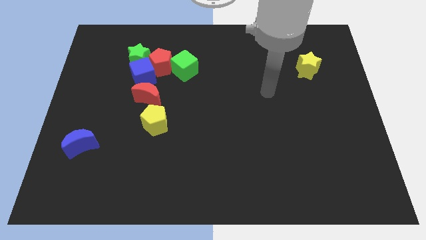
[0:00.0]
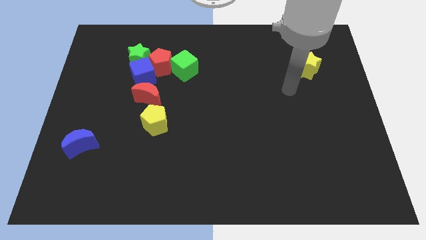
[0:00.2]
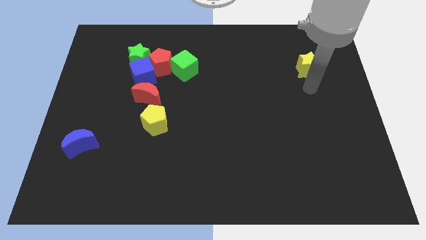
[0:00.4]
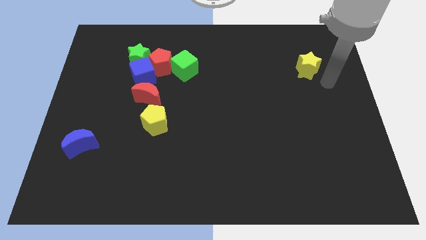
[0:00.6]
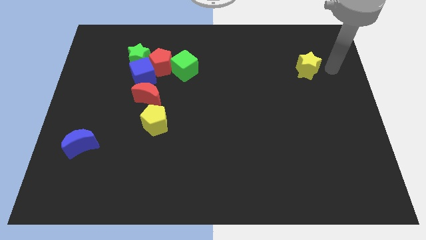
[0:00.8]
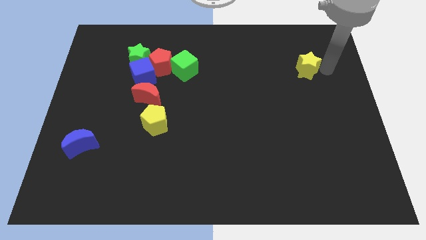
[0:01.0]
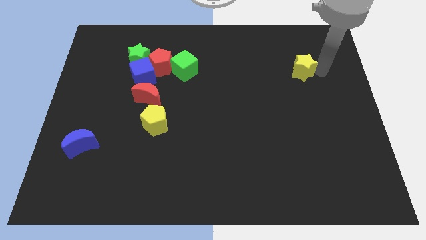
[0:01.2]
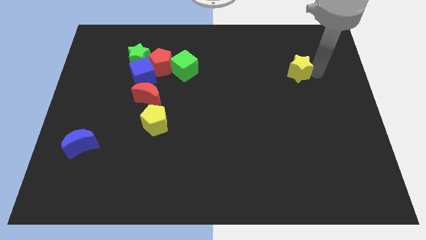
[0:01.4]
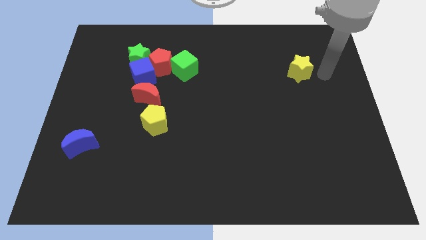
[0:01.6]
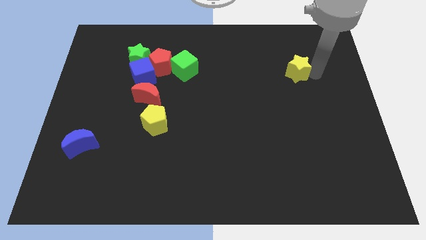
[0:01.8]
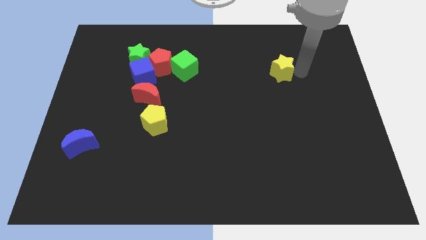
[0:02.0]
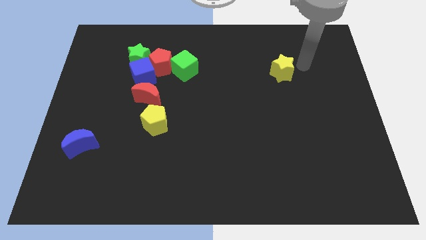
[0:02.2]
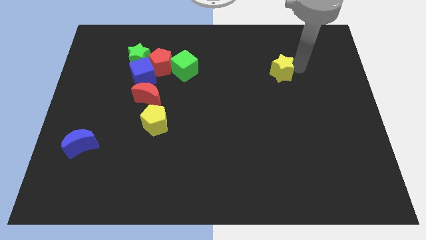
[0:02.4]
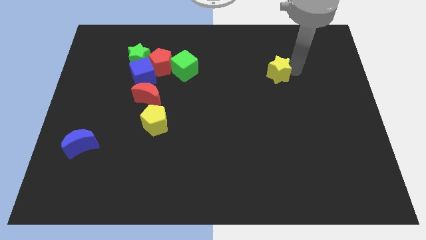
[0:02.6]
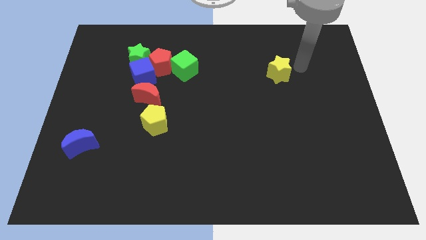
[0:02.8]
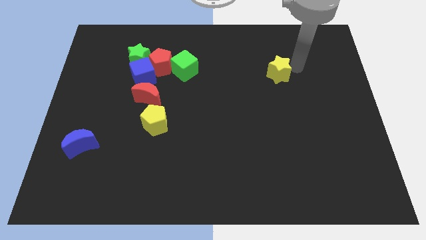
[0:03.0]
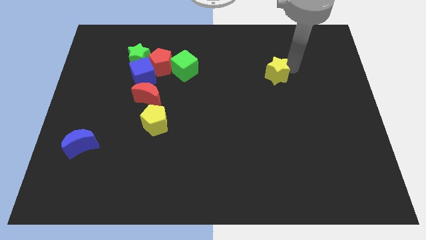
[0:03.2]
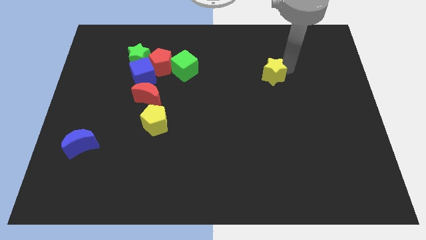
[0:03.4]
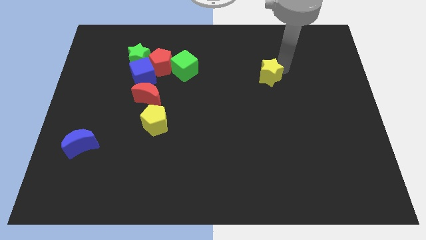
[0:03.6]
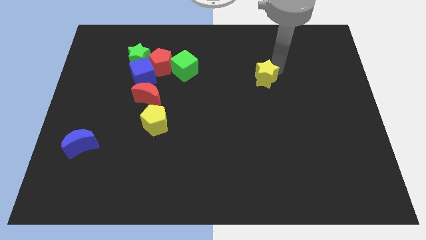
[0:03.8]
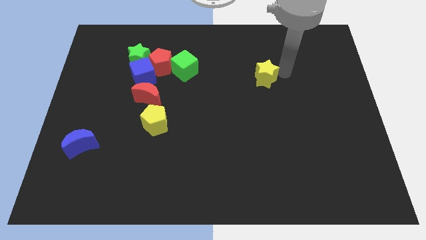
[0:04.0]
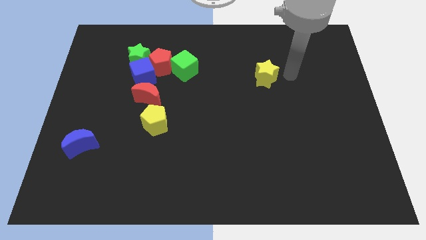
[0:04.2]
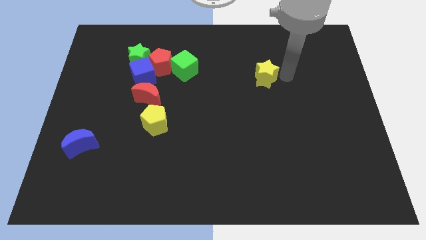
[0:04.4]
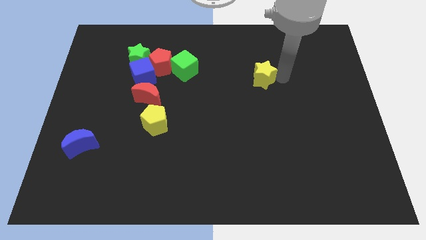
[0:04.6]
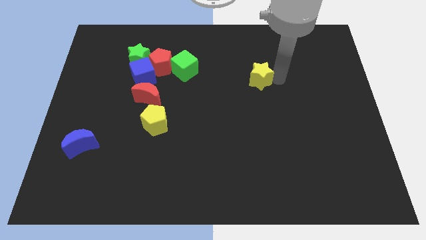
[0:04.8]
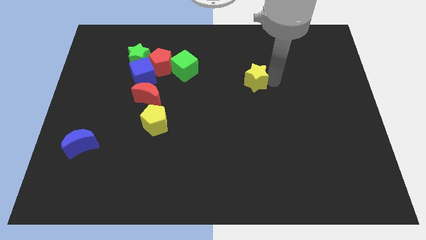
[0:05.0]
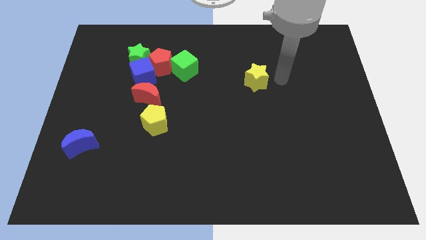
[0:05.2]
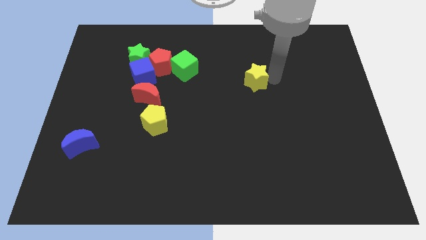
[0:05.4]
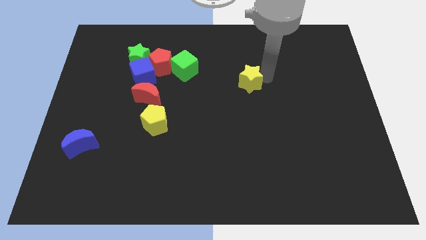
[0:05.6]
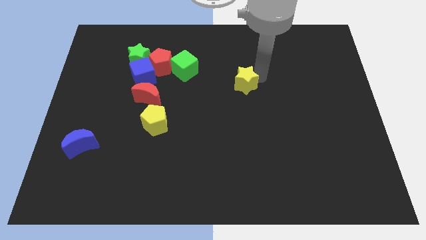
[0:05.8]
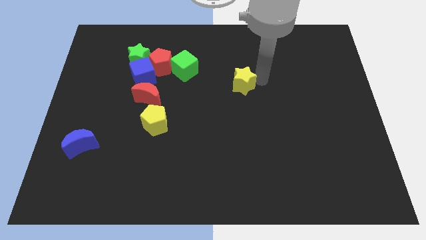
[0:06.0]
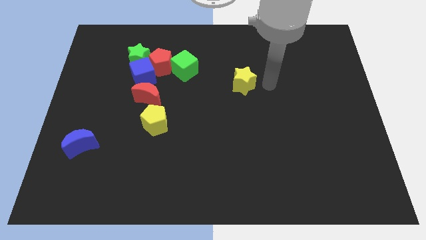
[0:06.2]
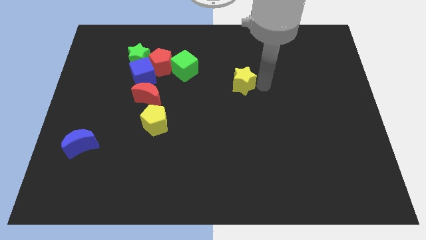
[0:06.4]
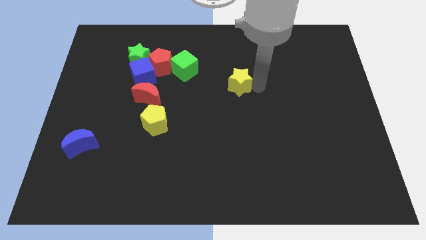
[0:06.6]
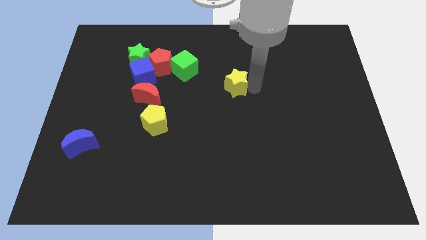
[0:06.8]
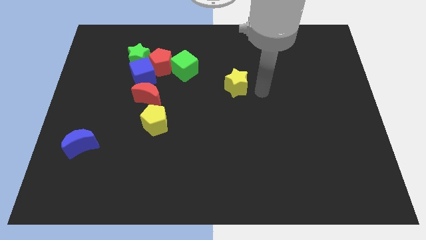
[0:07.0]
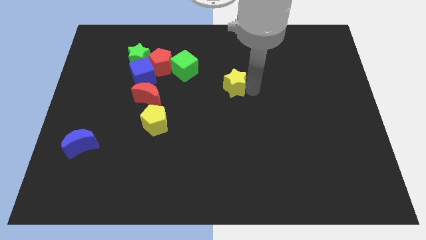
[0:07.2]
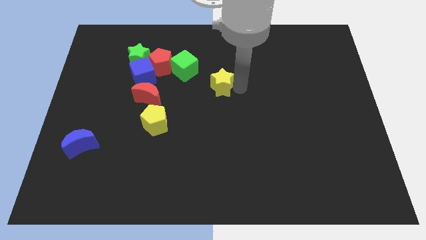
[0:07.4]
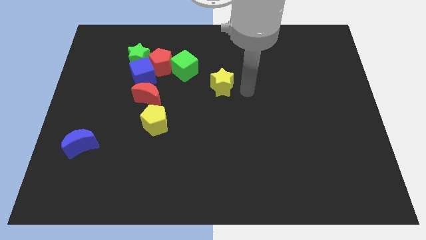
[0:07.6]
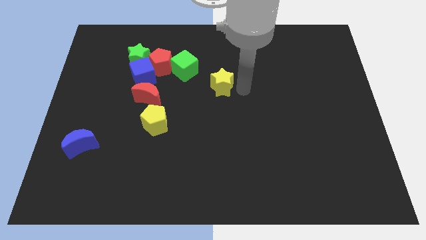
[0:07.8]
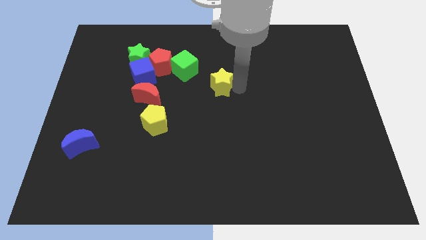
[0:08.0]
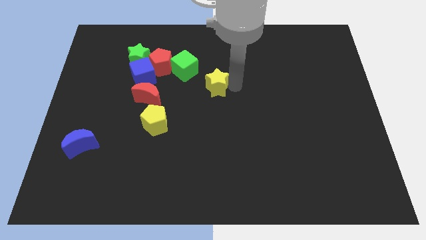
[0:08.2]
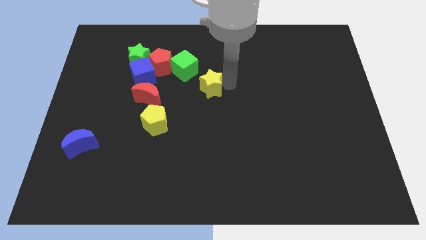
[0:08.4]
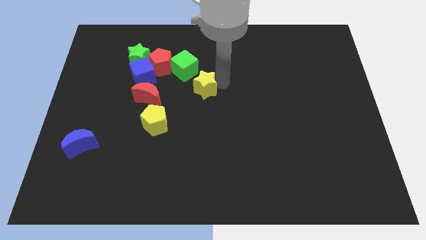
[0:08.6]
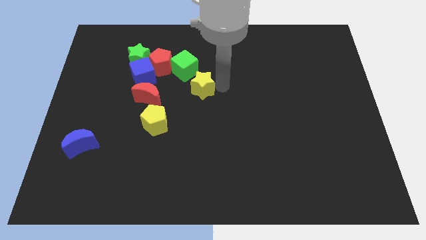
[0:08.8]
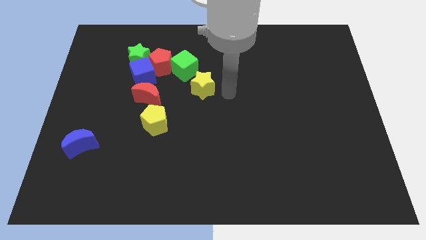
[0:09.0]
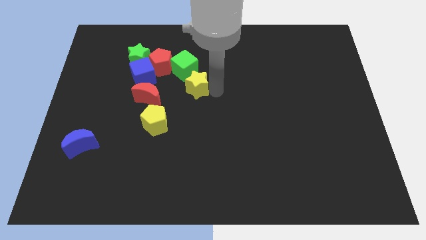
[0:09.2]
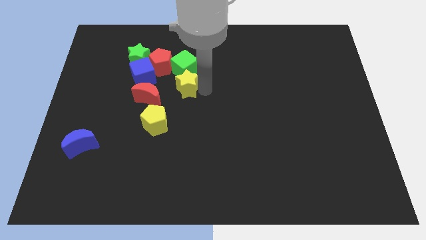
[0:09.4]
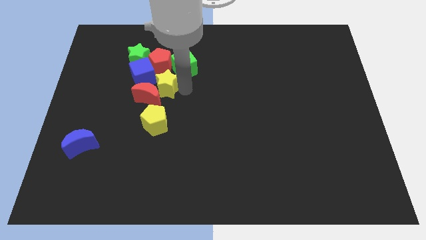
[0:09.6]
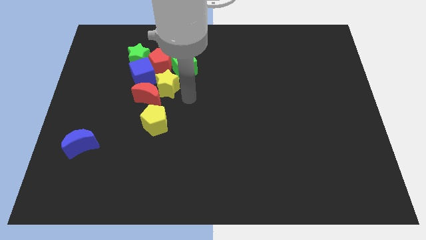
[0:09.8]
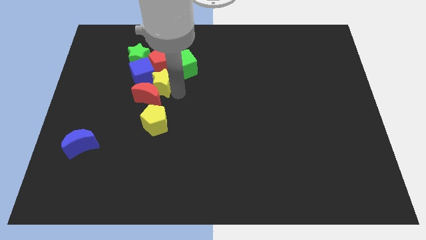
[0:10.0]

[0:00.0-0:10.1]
move the yellow star to the blue cube

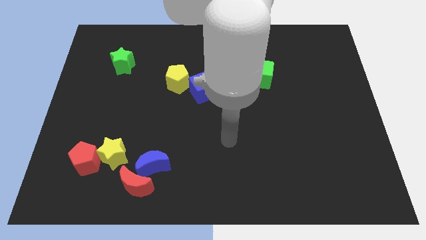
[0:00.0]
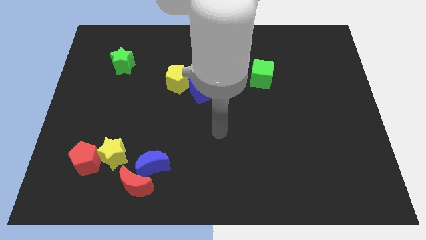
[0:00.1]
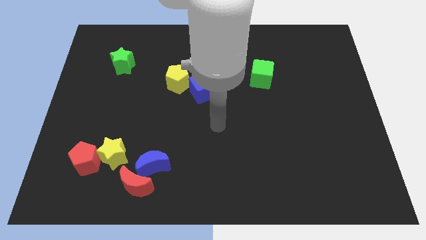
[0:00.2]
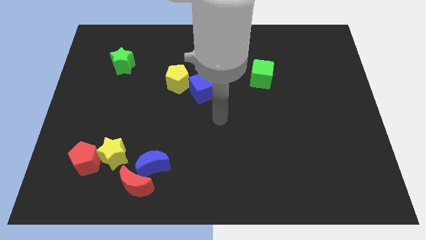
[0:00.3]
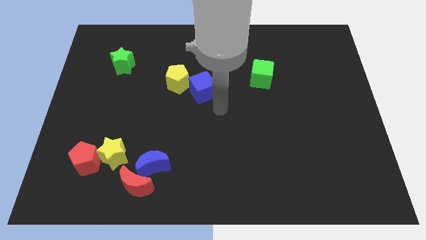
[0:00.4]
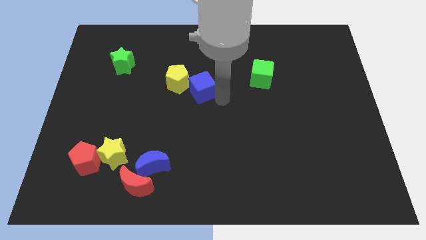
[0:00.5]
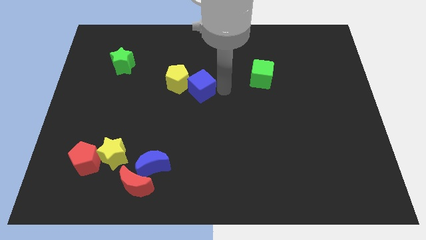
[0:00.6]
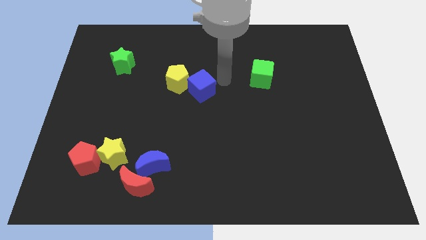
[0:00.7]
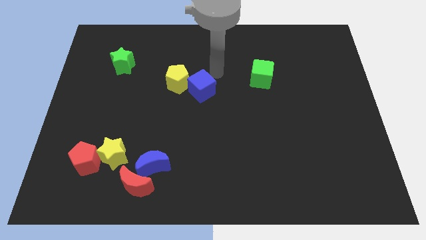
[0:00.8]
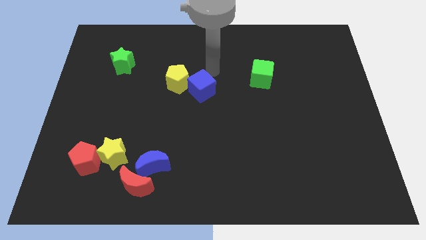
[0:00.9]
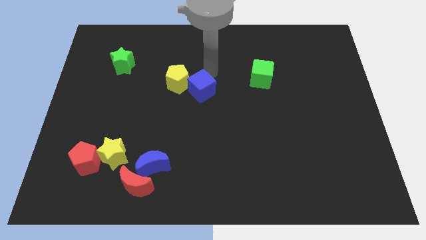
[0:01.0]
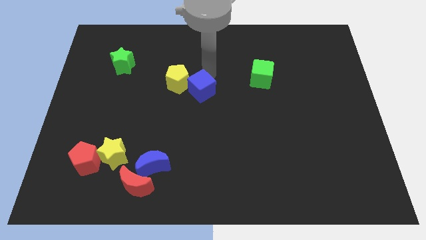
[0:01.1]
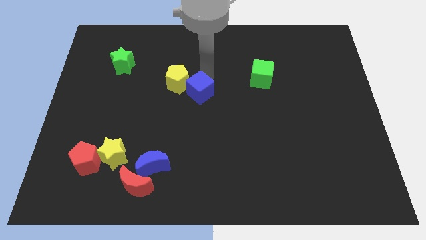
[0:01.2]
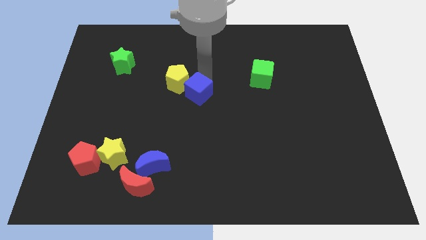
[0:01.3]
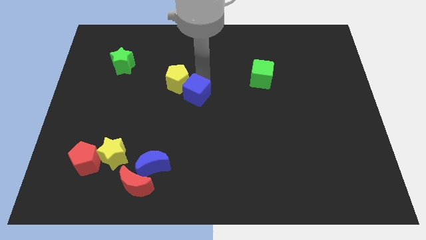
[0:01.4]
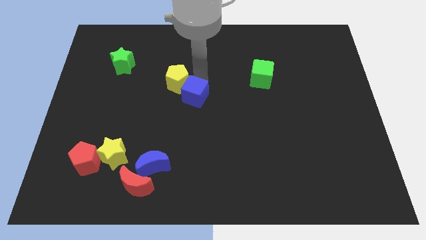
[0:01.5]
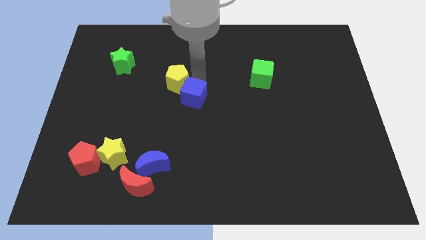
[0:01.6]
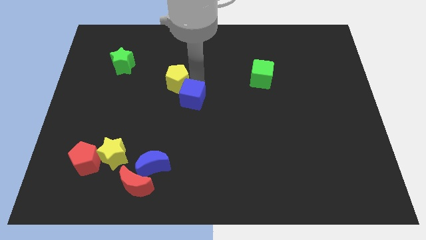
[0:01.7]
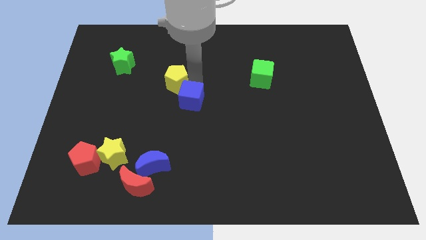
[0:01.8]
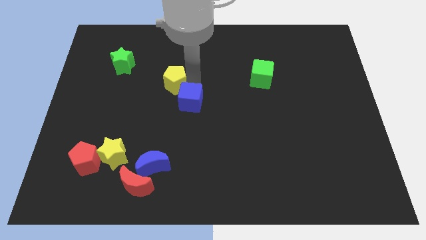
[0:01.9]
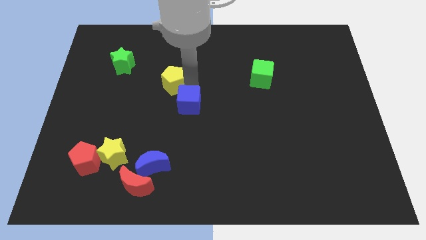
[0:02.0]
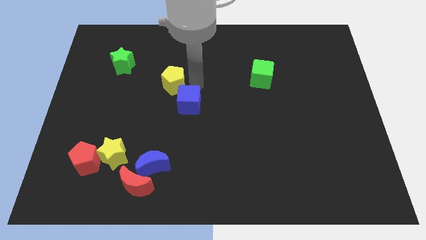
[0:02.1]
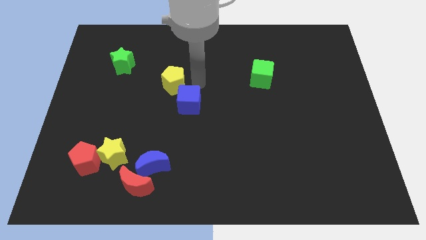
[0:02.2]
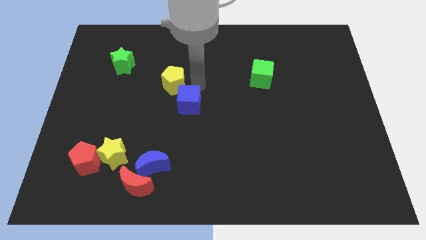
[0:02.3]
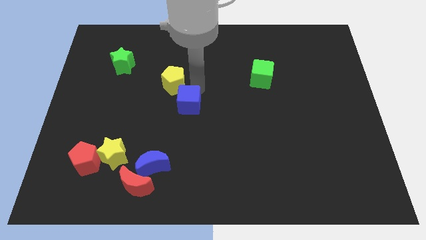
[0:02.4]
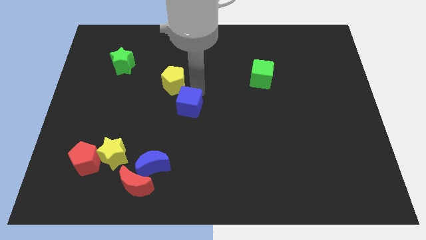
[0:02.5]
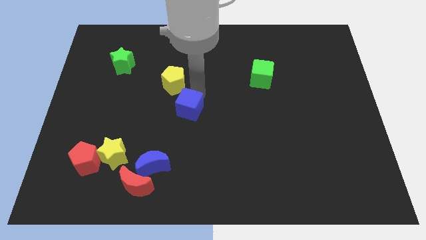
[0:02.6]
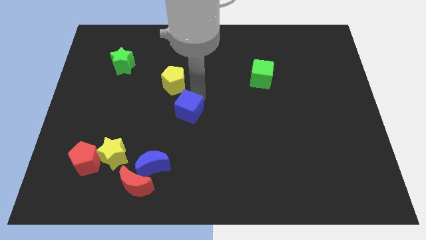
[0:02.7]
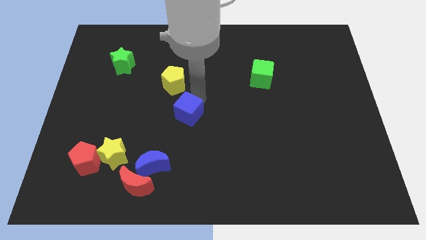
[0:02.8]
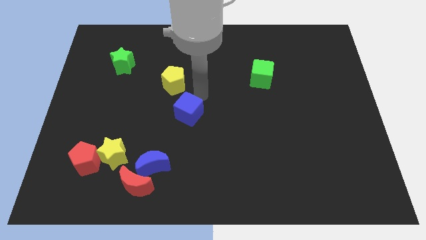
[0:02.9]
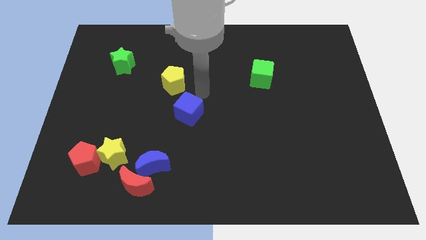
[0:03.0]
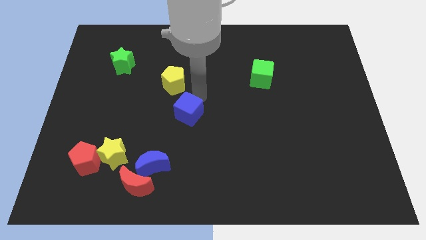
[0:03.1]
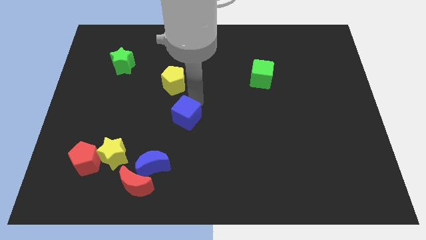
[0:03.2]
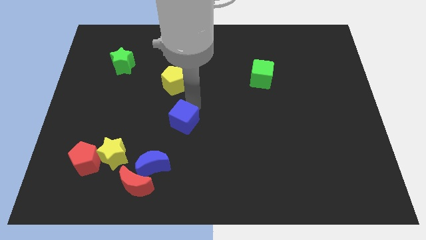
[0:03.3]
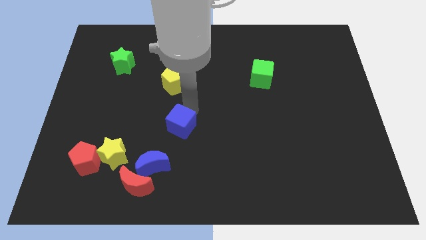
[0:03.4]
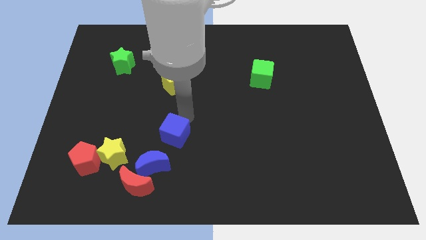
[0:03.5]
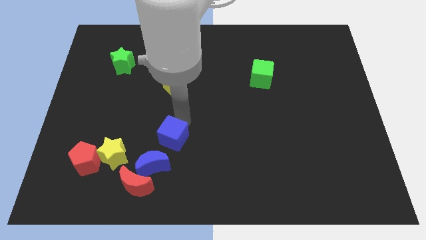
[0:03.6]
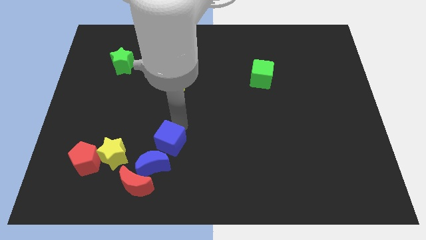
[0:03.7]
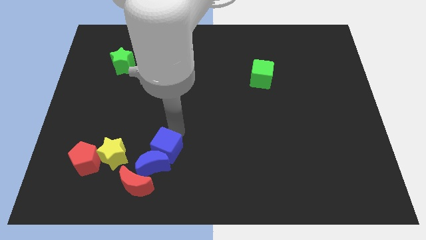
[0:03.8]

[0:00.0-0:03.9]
move the blue cube to the blue moon
